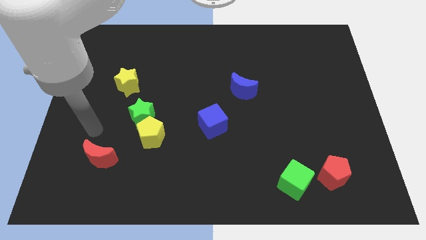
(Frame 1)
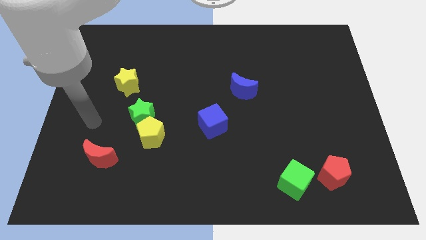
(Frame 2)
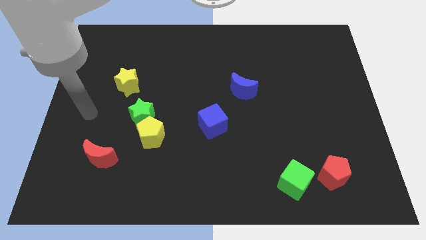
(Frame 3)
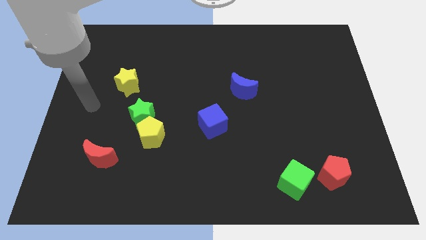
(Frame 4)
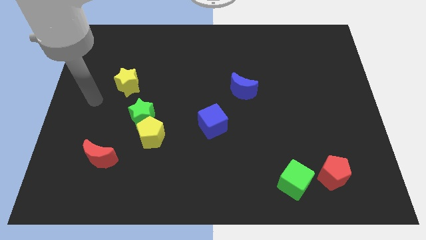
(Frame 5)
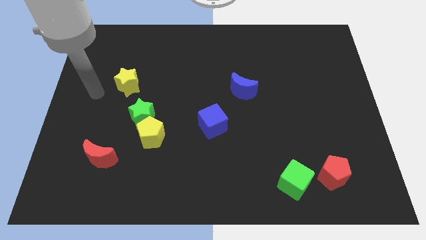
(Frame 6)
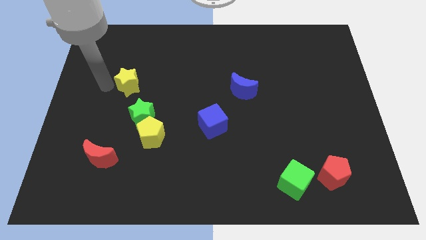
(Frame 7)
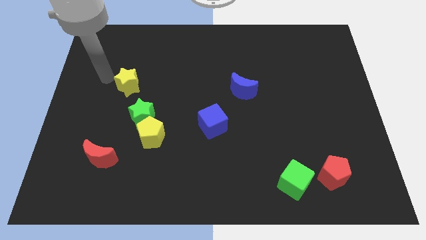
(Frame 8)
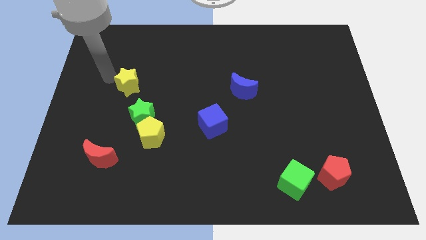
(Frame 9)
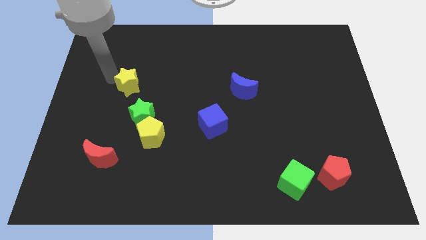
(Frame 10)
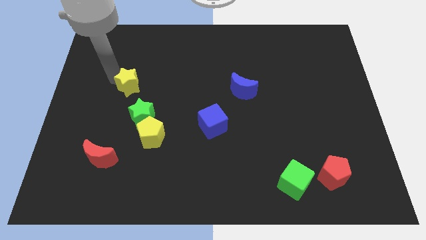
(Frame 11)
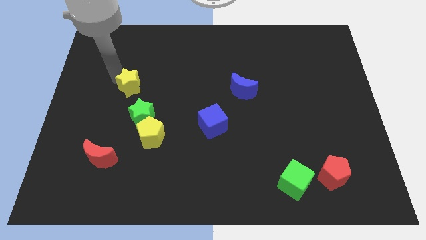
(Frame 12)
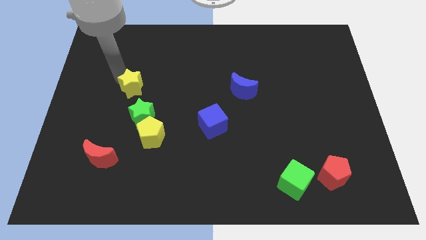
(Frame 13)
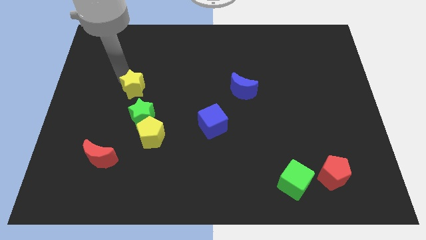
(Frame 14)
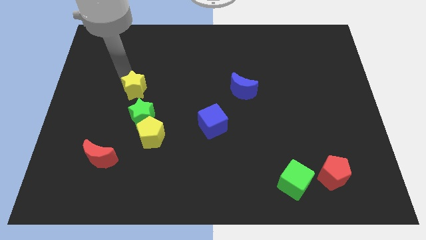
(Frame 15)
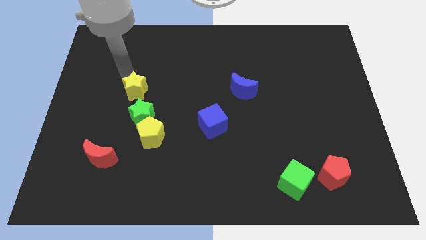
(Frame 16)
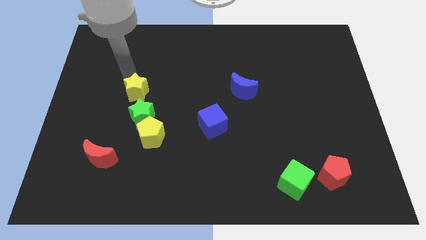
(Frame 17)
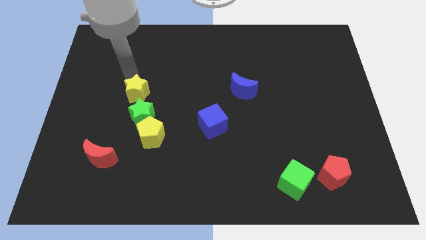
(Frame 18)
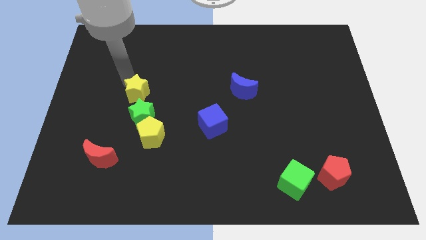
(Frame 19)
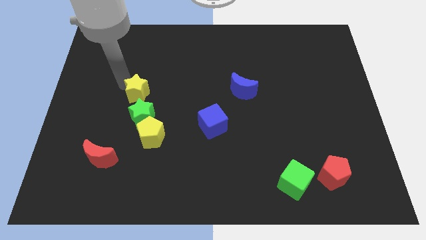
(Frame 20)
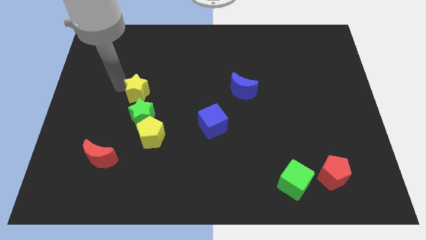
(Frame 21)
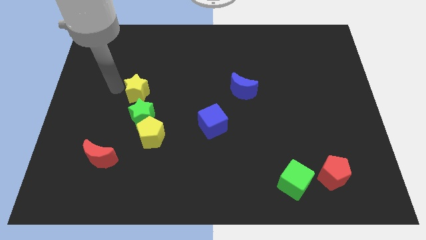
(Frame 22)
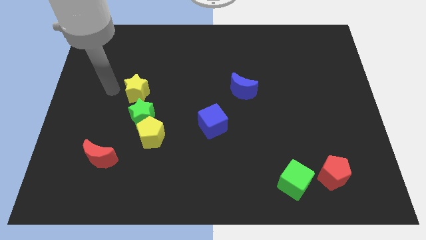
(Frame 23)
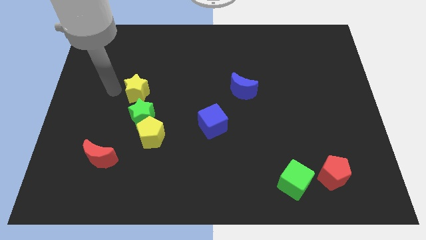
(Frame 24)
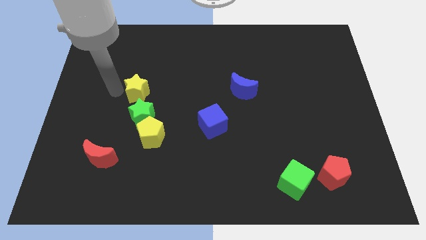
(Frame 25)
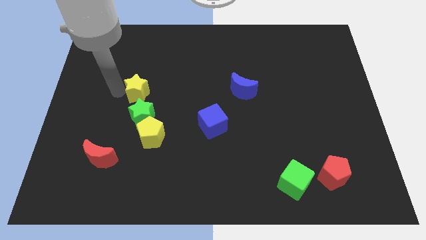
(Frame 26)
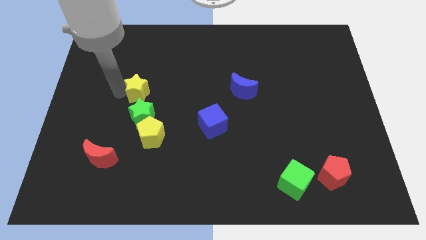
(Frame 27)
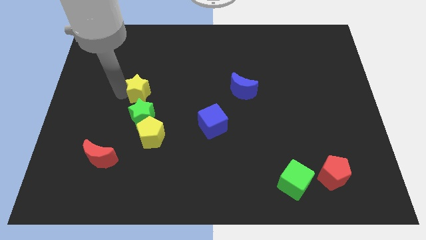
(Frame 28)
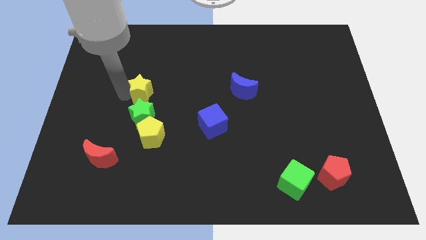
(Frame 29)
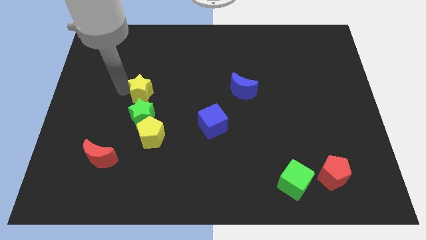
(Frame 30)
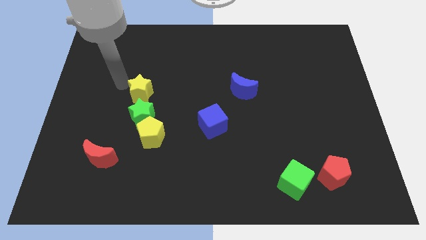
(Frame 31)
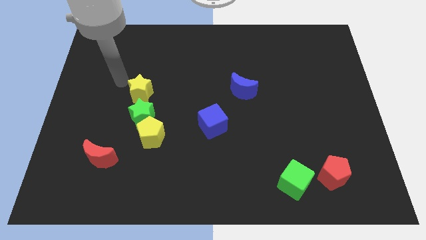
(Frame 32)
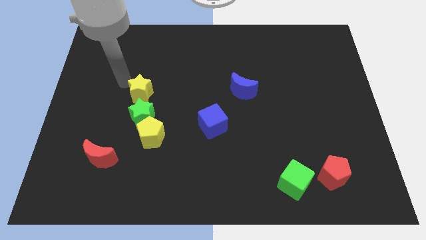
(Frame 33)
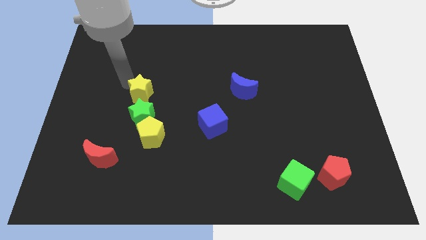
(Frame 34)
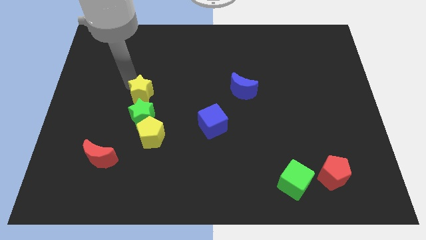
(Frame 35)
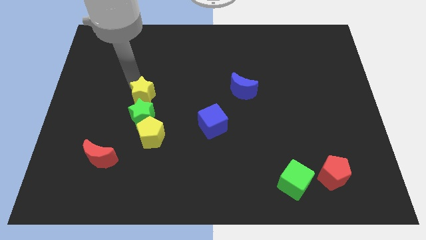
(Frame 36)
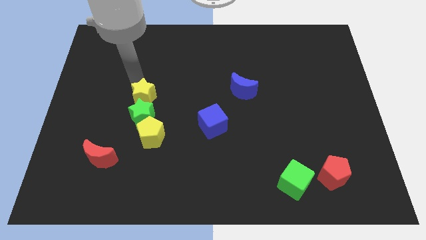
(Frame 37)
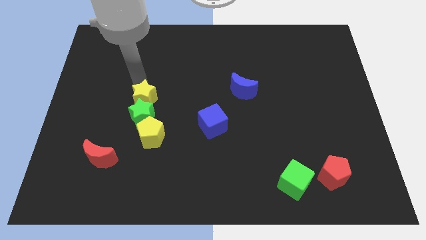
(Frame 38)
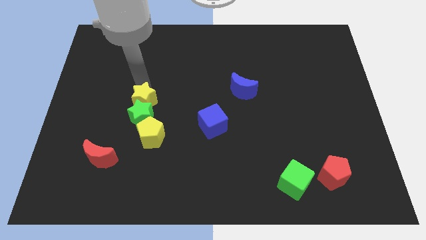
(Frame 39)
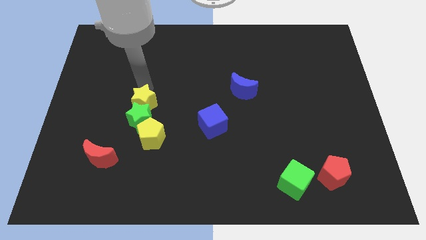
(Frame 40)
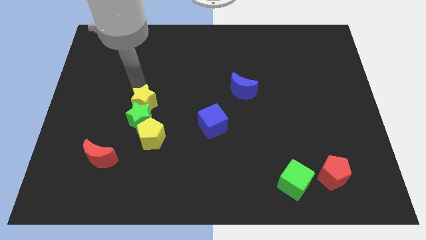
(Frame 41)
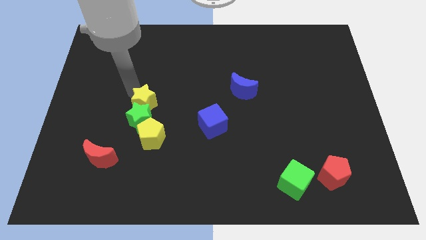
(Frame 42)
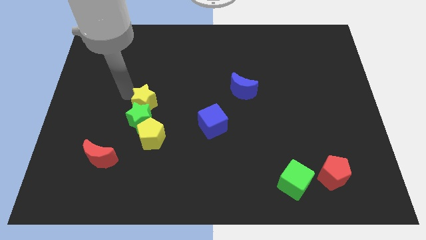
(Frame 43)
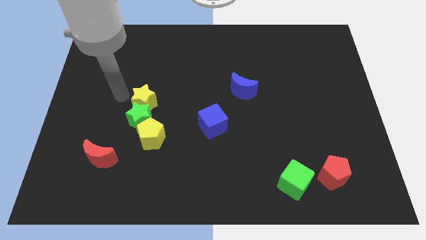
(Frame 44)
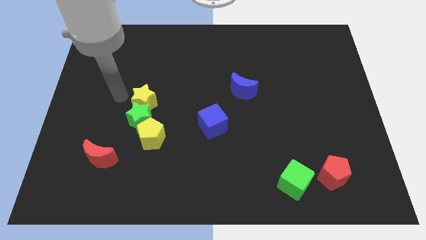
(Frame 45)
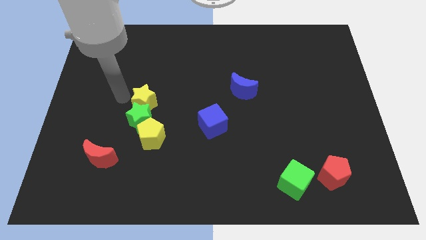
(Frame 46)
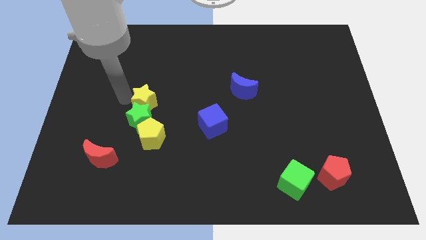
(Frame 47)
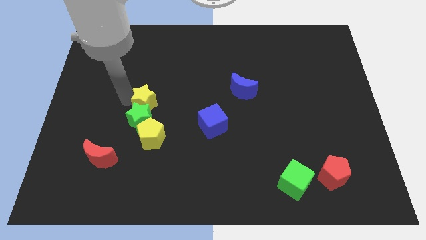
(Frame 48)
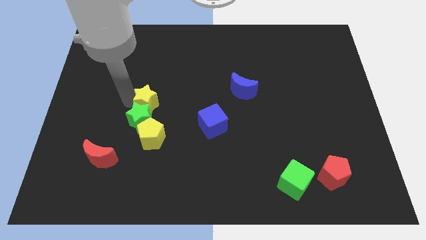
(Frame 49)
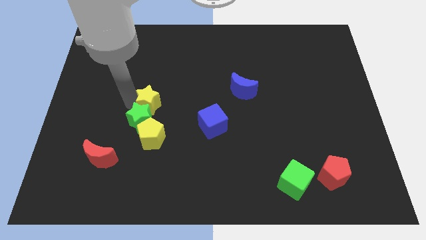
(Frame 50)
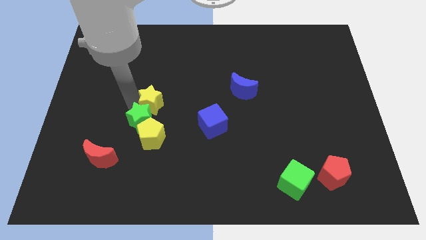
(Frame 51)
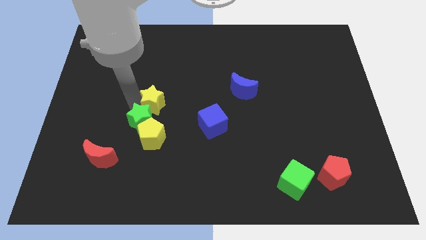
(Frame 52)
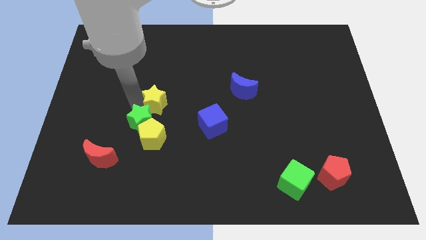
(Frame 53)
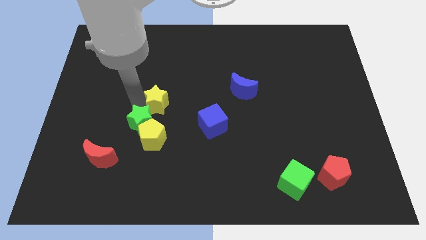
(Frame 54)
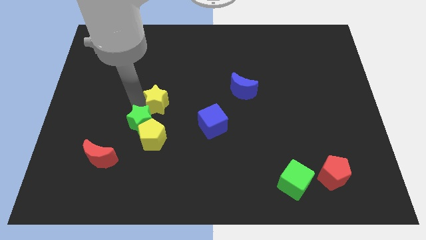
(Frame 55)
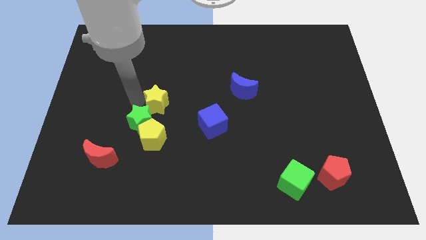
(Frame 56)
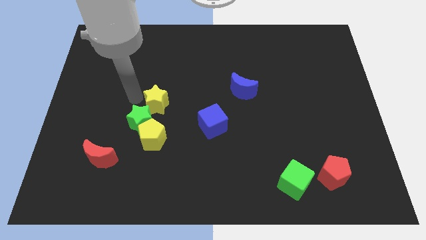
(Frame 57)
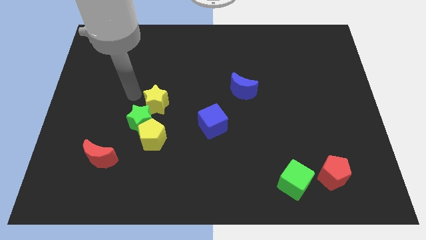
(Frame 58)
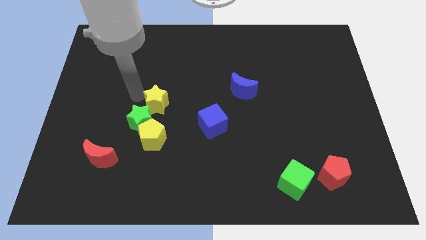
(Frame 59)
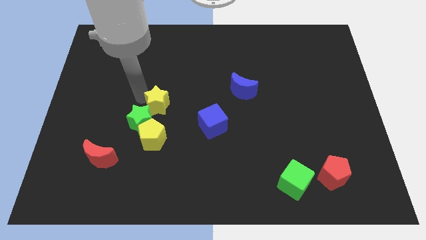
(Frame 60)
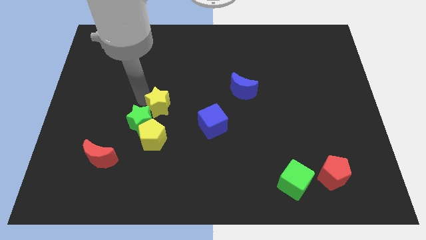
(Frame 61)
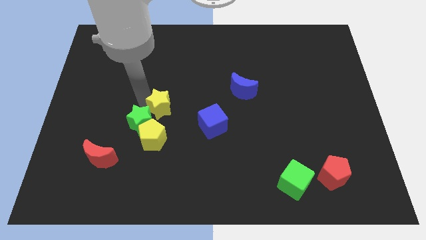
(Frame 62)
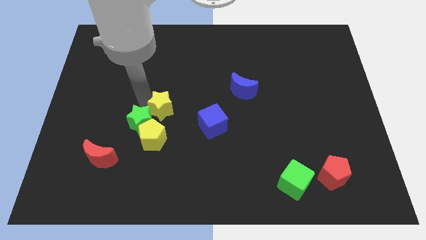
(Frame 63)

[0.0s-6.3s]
push the yellow star to the left side of the blue cube

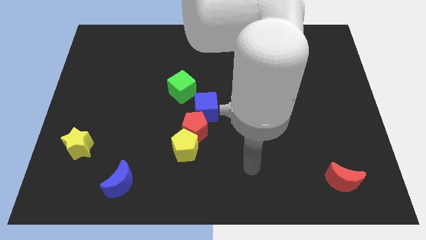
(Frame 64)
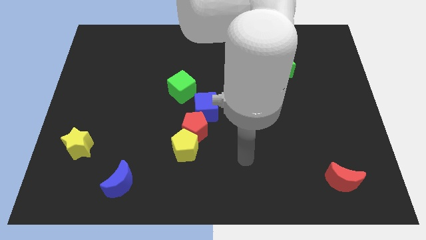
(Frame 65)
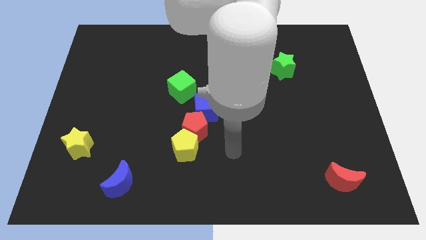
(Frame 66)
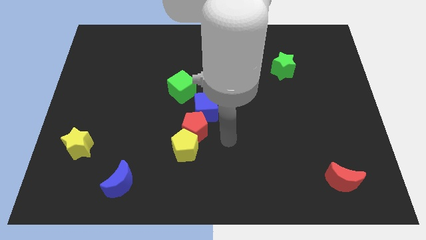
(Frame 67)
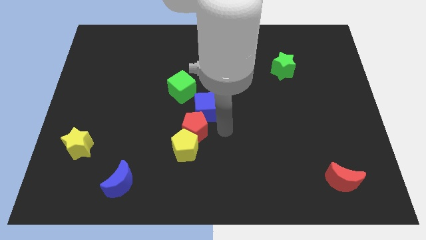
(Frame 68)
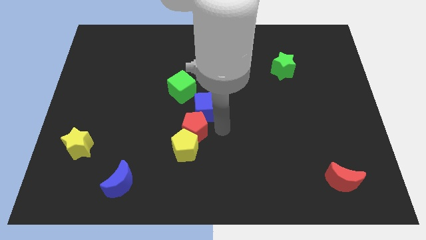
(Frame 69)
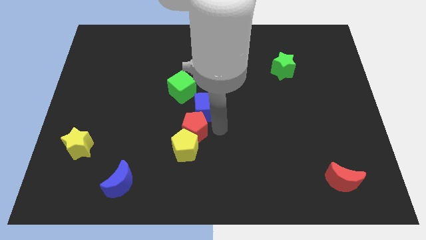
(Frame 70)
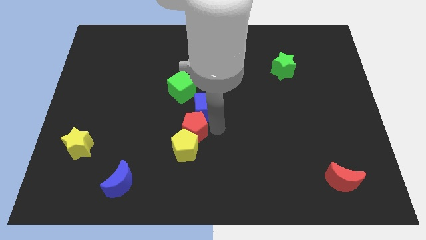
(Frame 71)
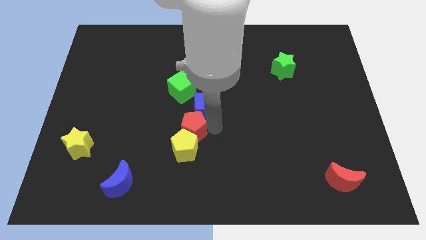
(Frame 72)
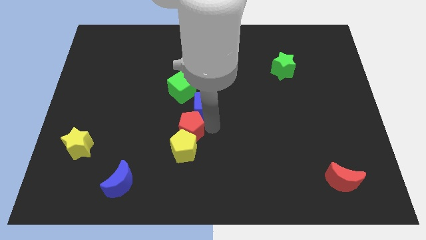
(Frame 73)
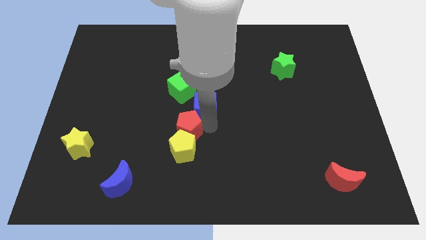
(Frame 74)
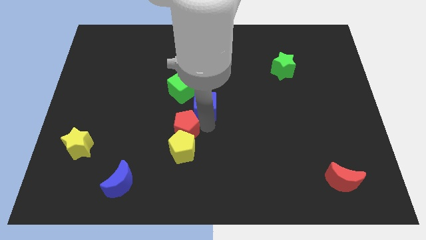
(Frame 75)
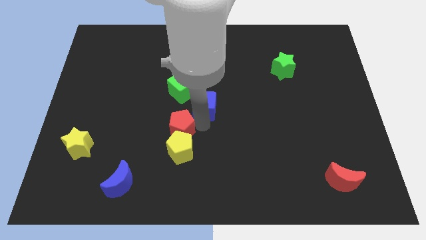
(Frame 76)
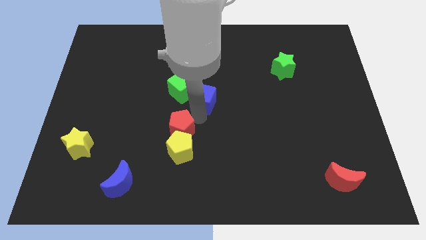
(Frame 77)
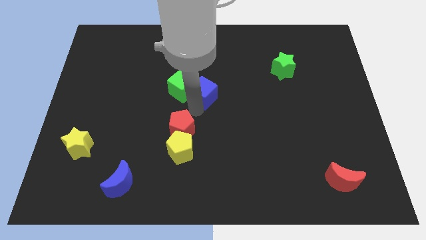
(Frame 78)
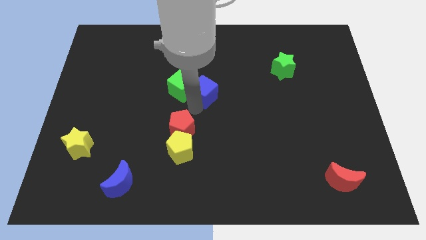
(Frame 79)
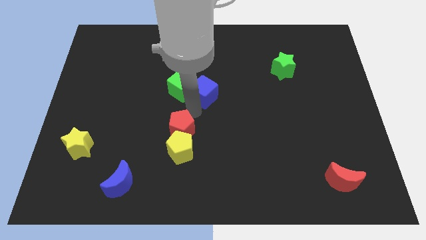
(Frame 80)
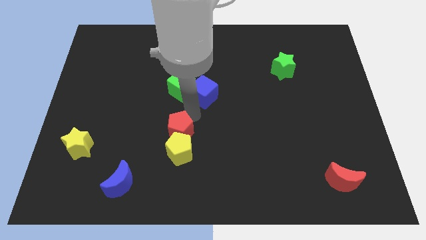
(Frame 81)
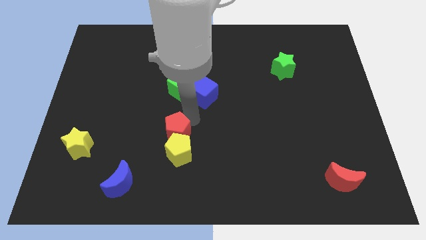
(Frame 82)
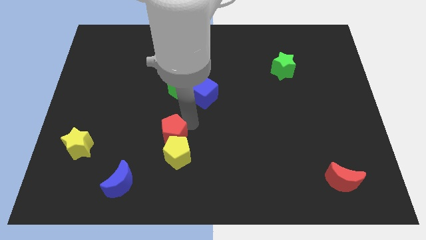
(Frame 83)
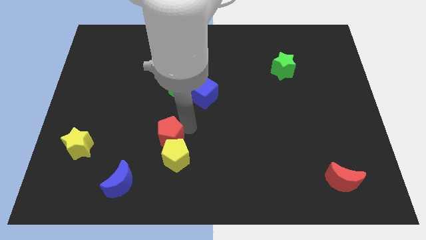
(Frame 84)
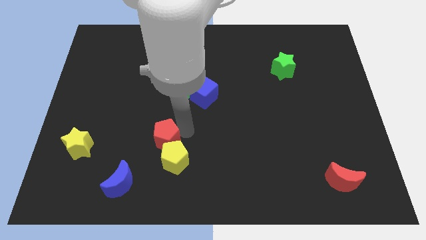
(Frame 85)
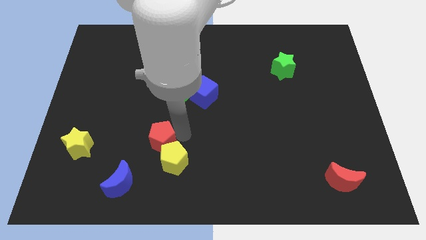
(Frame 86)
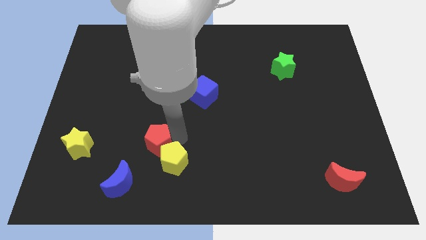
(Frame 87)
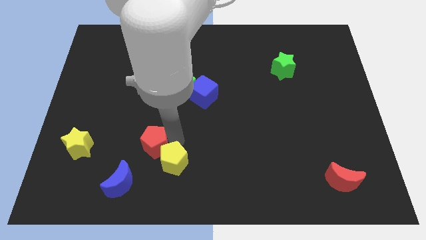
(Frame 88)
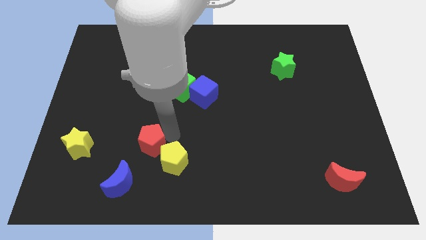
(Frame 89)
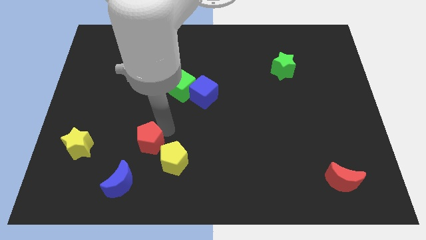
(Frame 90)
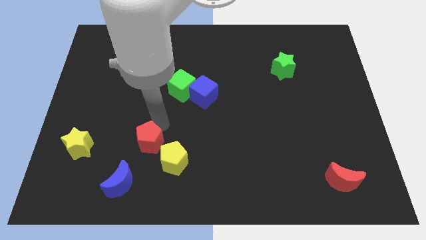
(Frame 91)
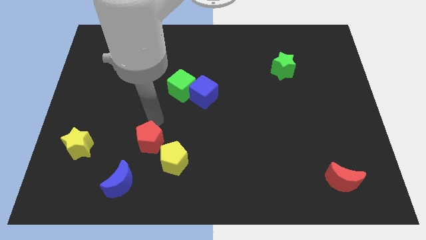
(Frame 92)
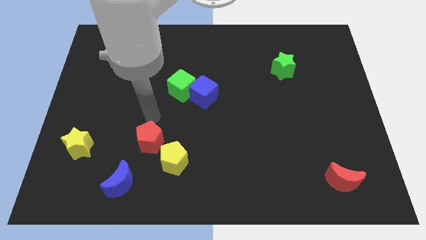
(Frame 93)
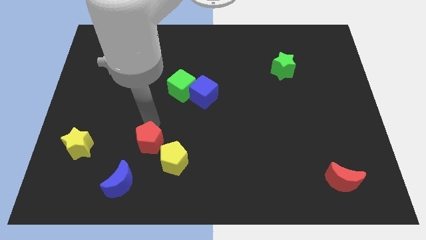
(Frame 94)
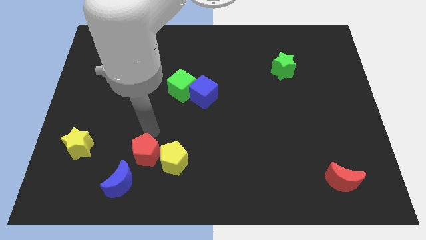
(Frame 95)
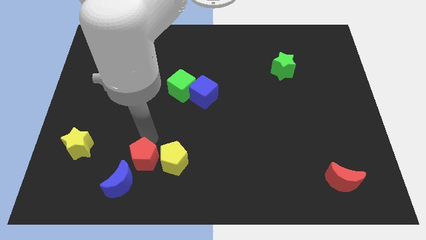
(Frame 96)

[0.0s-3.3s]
slide the red pentagon diagonally down and to the left of the yellow pentagon
